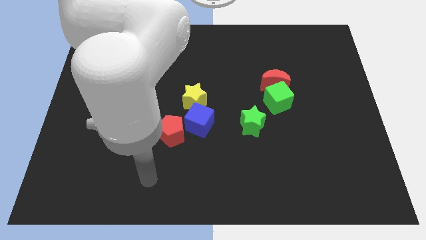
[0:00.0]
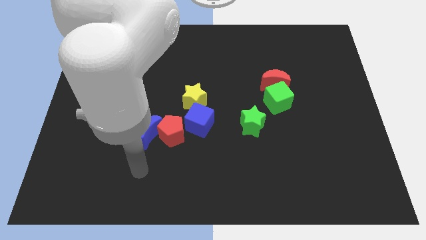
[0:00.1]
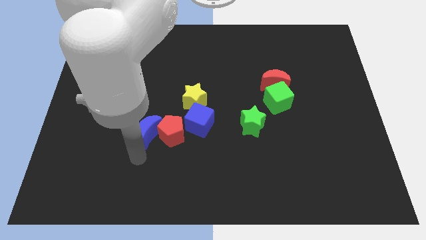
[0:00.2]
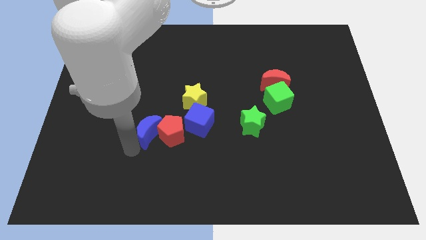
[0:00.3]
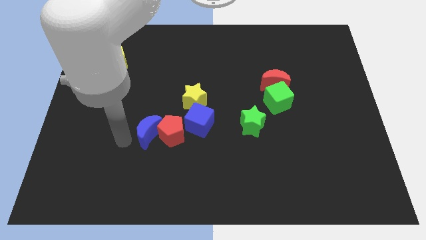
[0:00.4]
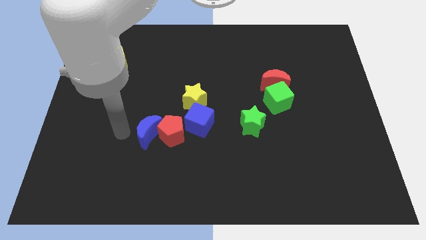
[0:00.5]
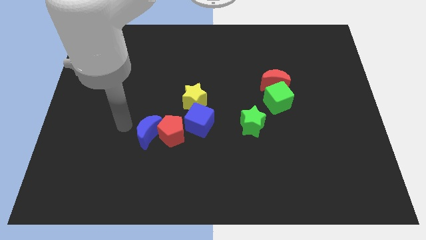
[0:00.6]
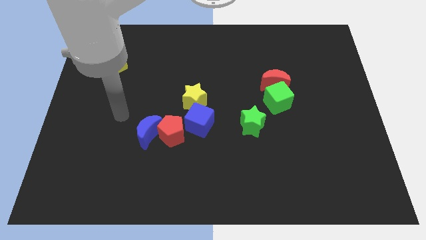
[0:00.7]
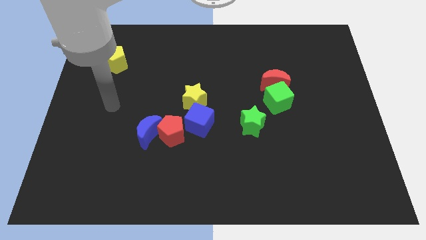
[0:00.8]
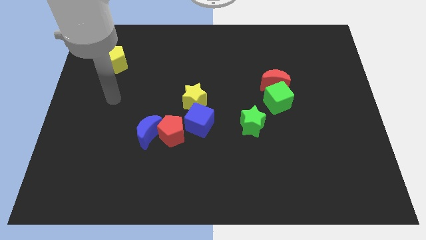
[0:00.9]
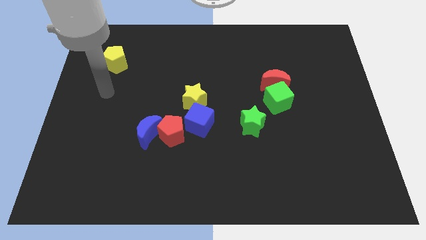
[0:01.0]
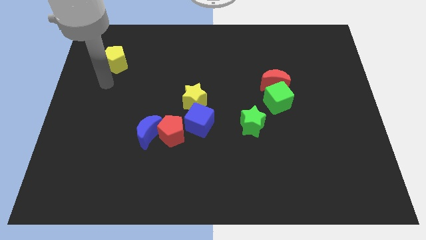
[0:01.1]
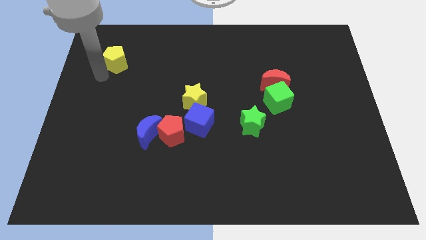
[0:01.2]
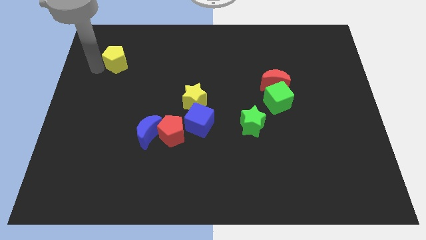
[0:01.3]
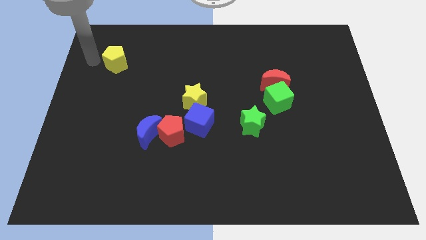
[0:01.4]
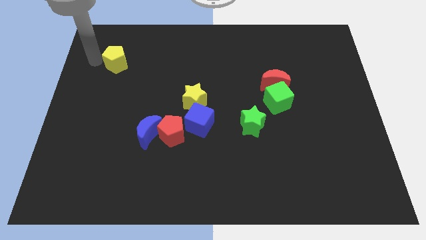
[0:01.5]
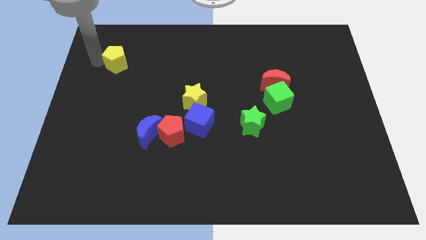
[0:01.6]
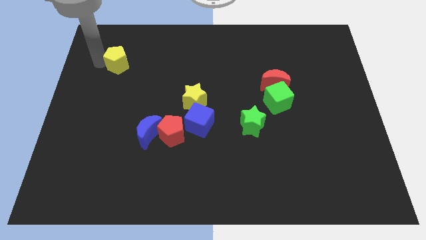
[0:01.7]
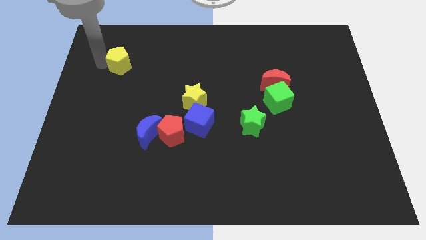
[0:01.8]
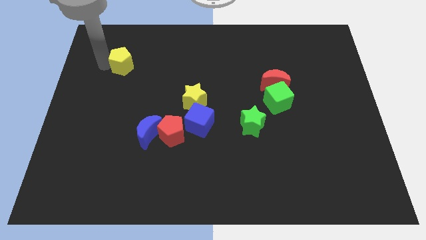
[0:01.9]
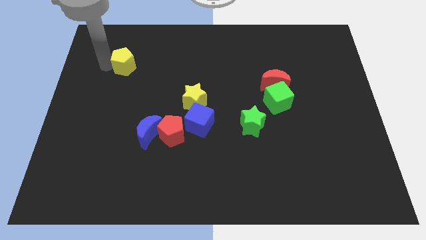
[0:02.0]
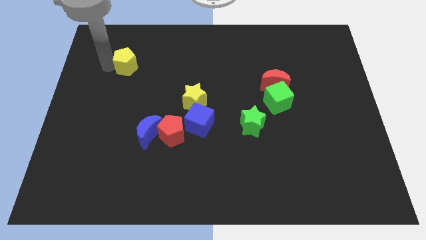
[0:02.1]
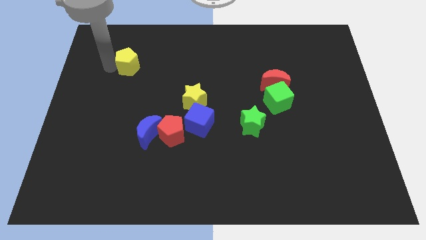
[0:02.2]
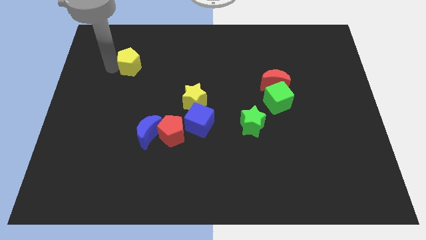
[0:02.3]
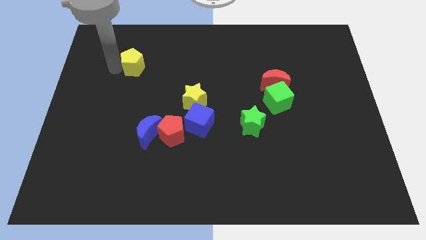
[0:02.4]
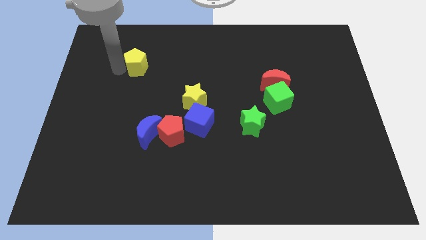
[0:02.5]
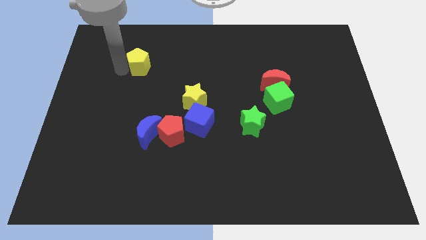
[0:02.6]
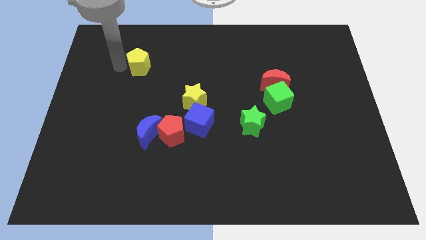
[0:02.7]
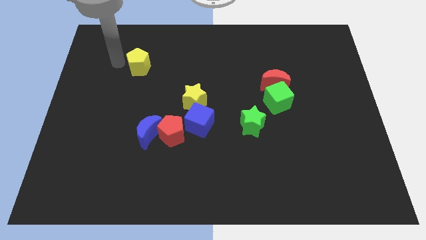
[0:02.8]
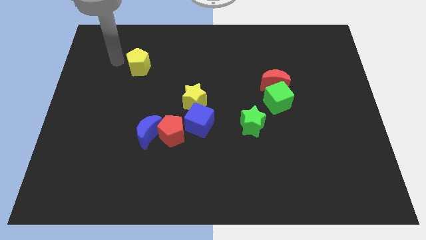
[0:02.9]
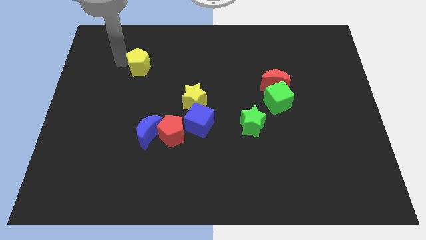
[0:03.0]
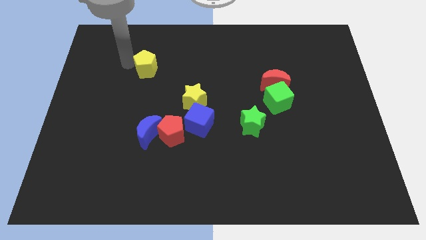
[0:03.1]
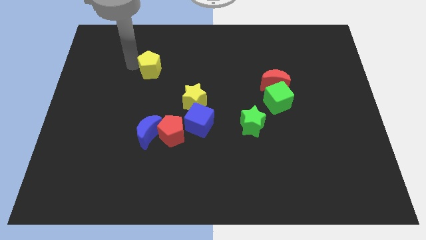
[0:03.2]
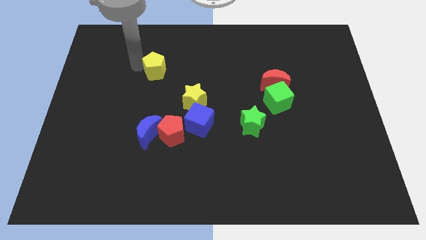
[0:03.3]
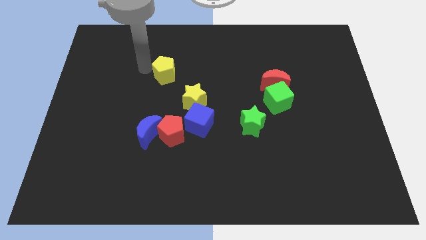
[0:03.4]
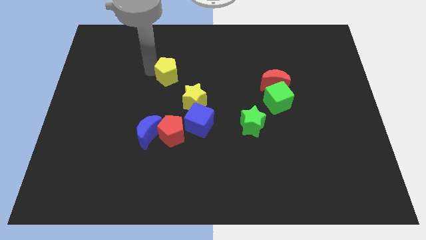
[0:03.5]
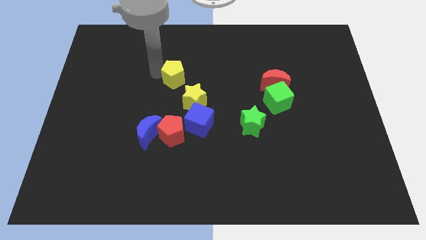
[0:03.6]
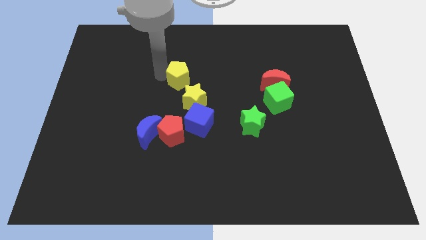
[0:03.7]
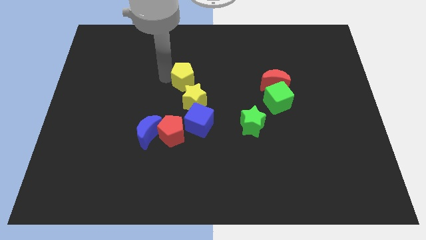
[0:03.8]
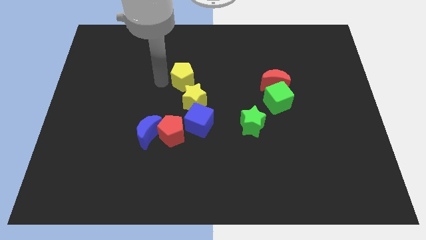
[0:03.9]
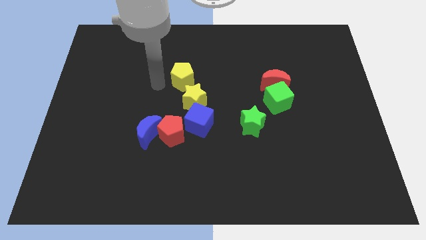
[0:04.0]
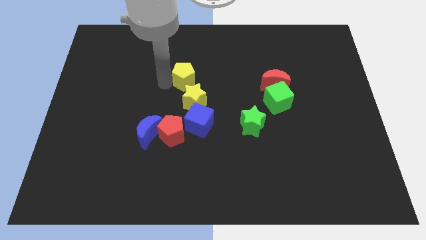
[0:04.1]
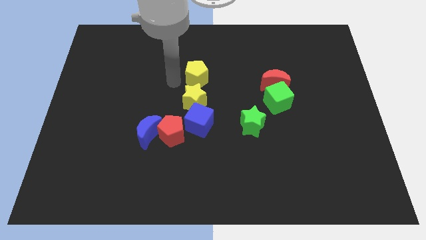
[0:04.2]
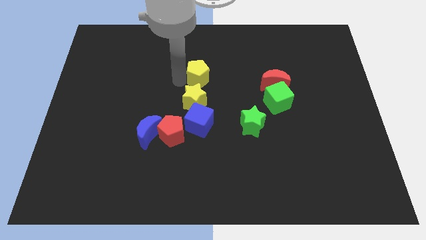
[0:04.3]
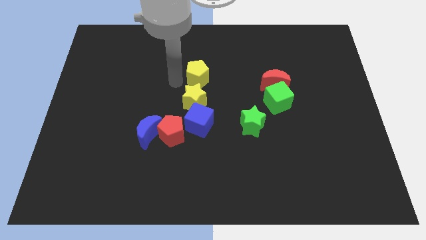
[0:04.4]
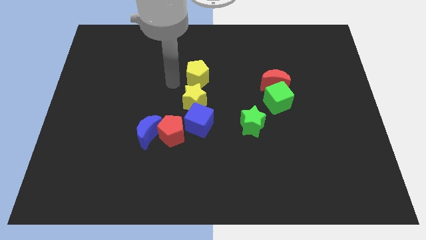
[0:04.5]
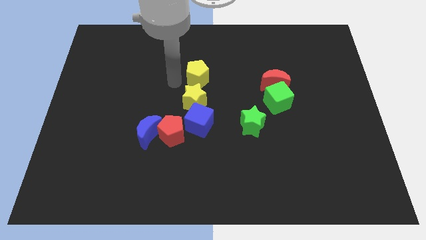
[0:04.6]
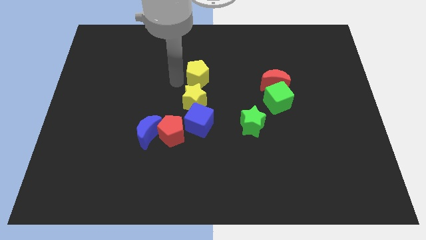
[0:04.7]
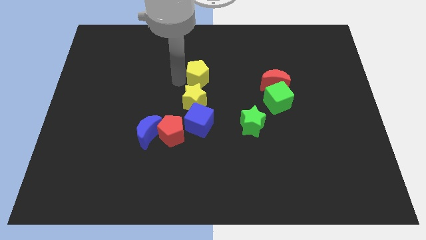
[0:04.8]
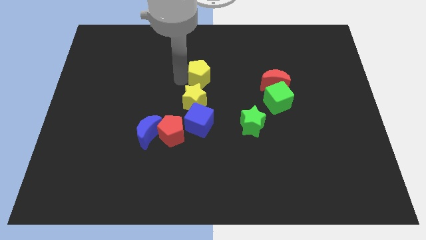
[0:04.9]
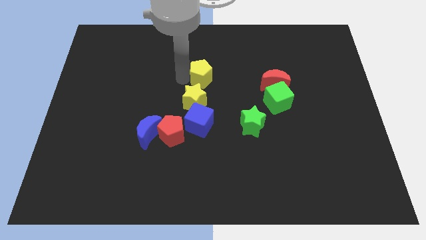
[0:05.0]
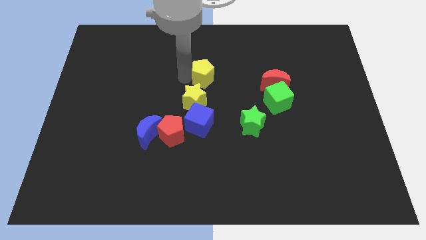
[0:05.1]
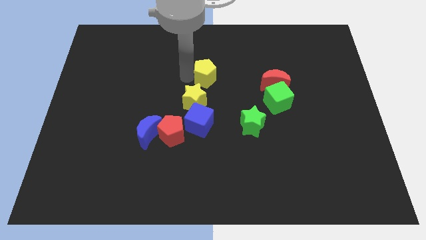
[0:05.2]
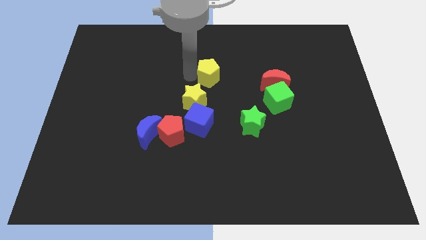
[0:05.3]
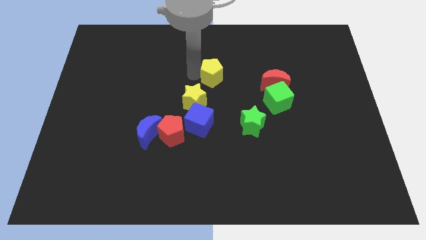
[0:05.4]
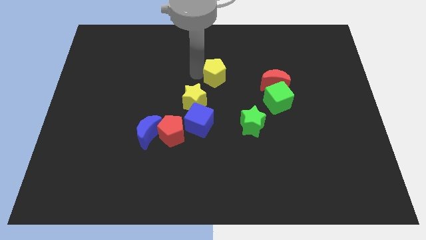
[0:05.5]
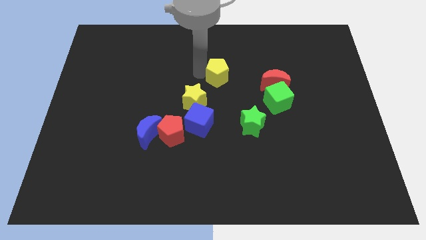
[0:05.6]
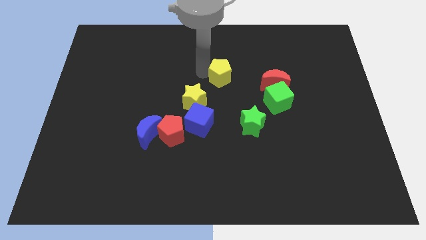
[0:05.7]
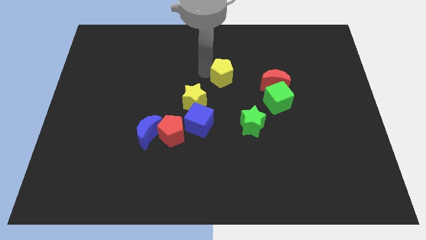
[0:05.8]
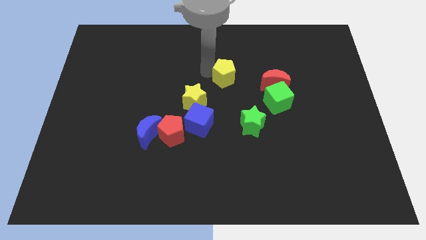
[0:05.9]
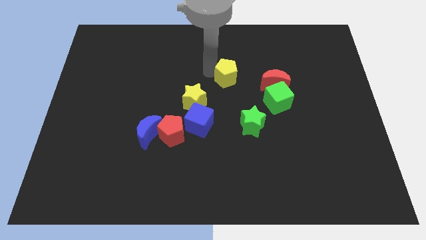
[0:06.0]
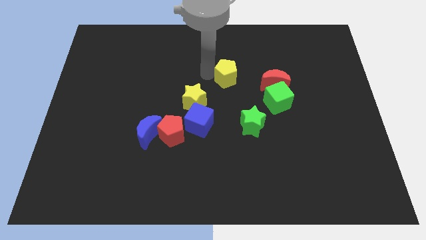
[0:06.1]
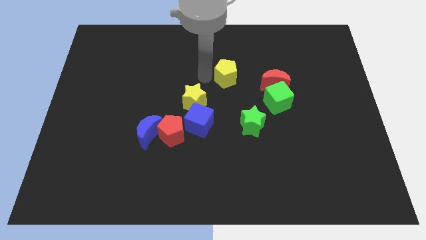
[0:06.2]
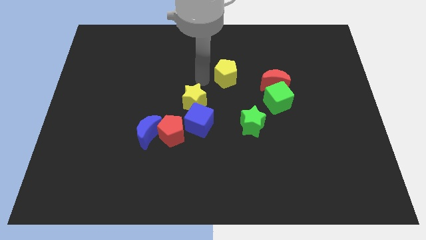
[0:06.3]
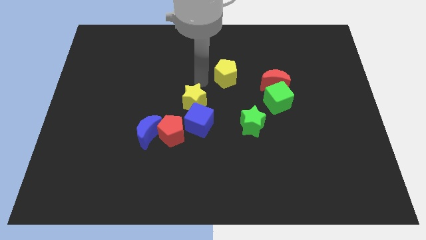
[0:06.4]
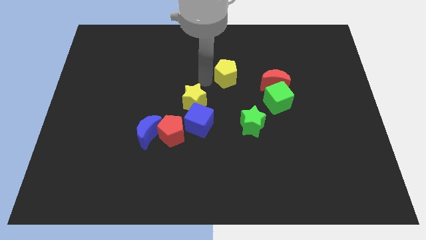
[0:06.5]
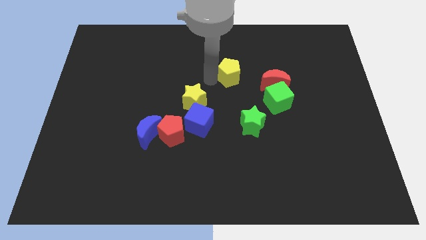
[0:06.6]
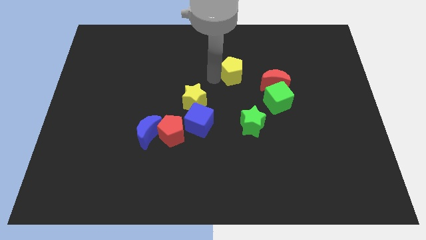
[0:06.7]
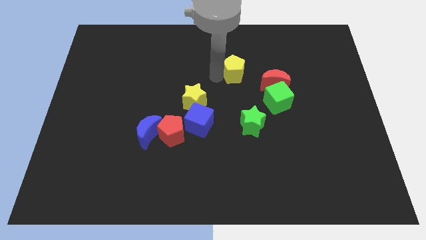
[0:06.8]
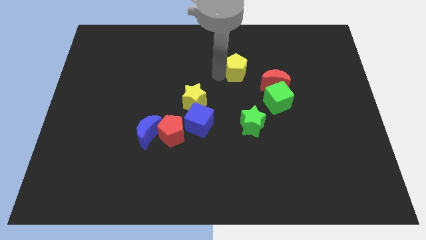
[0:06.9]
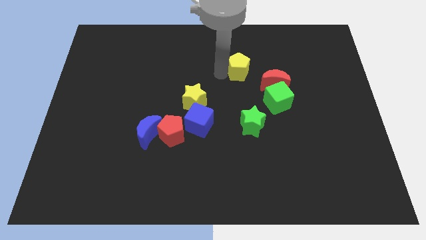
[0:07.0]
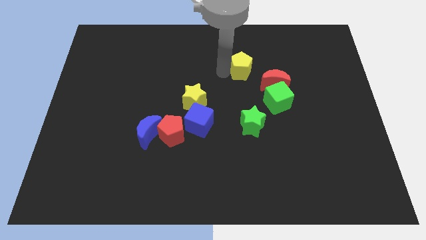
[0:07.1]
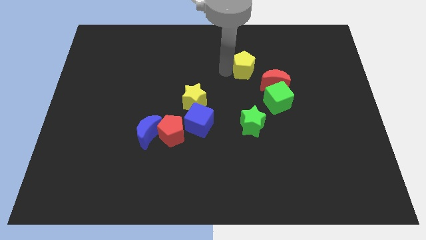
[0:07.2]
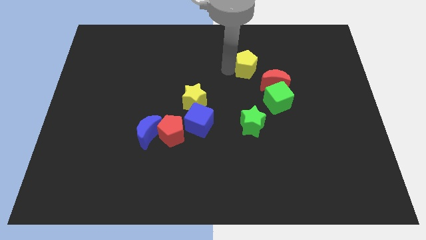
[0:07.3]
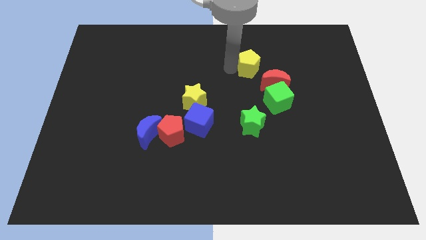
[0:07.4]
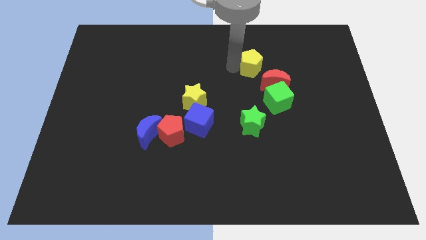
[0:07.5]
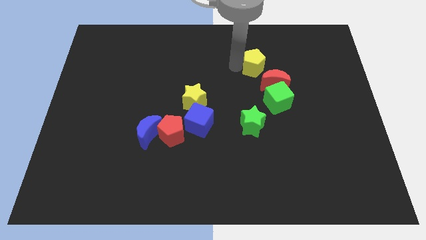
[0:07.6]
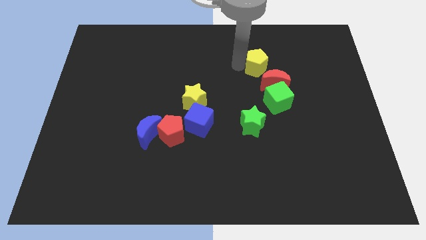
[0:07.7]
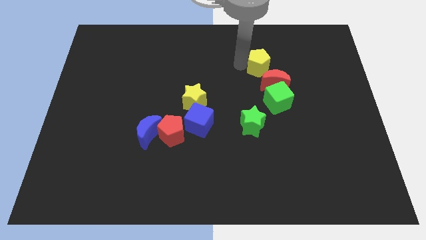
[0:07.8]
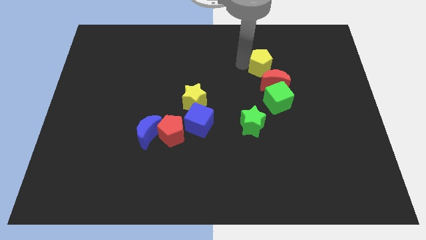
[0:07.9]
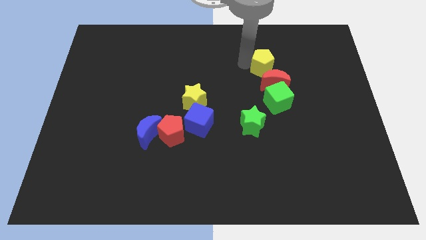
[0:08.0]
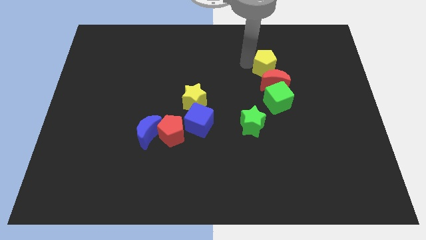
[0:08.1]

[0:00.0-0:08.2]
push the yellow pentagon close to the red moon
